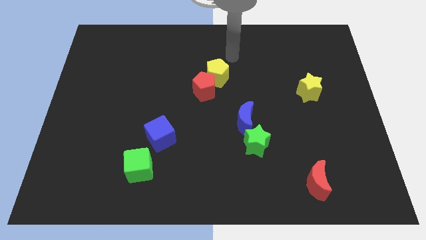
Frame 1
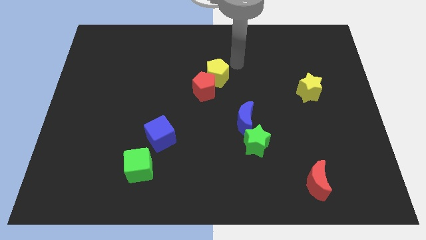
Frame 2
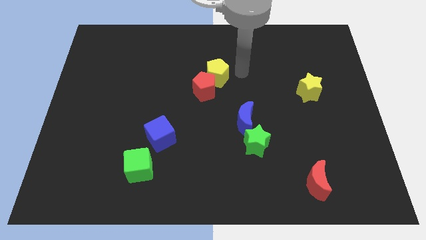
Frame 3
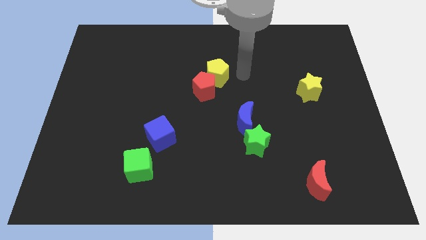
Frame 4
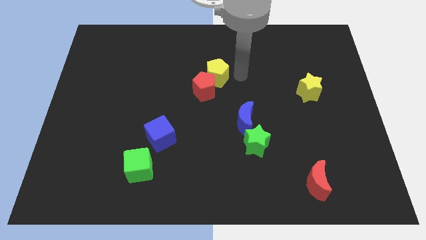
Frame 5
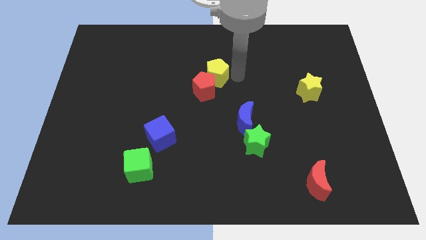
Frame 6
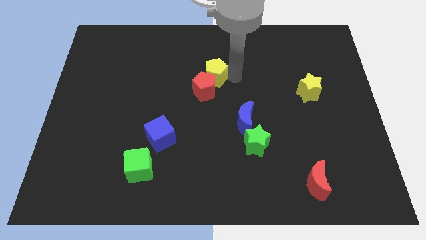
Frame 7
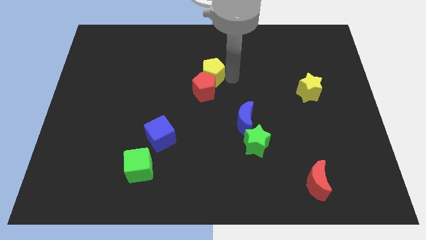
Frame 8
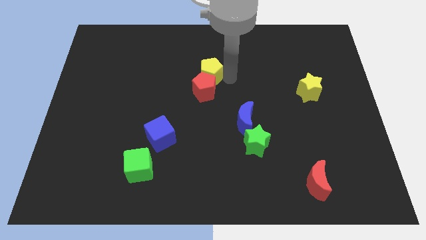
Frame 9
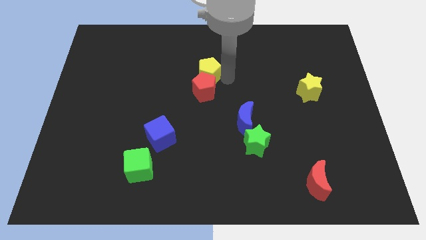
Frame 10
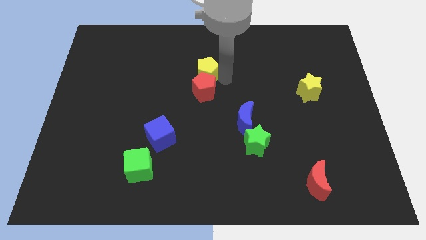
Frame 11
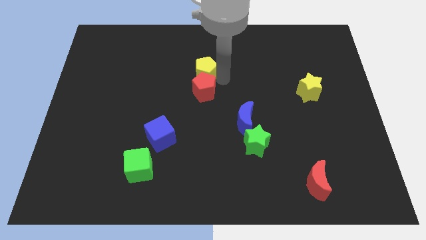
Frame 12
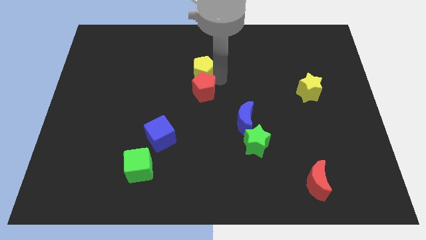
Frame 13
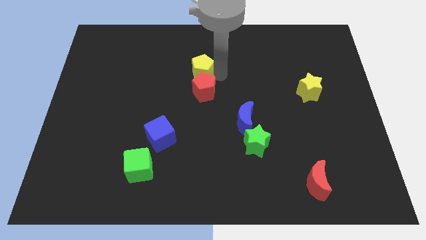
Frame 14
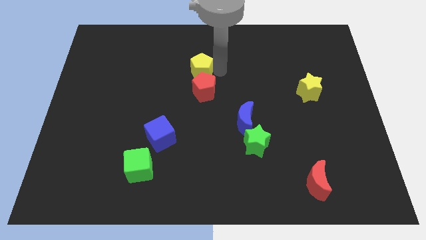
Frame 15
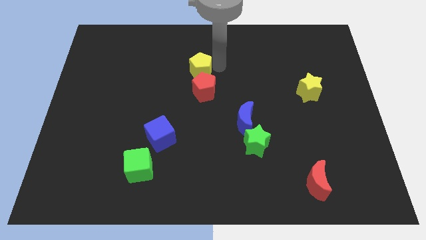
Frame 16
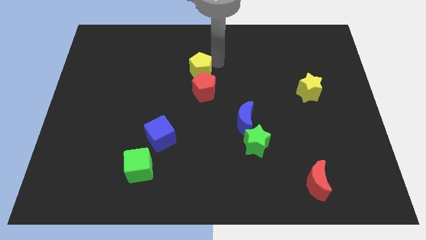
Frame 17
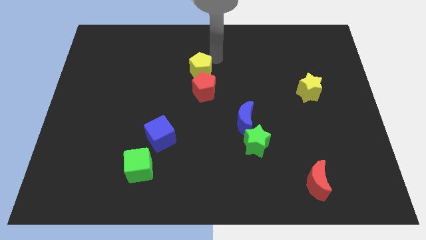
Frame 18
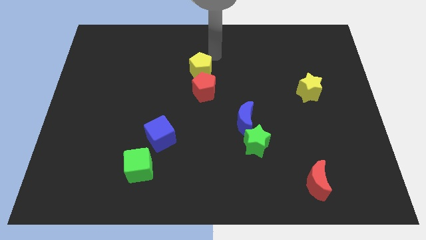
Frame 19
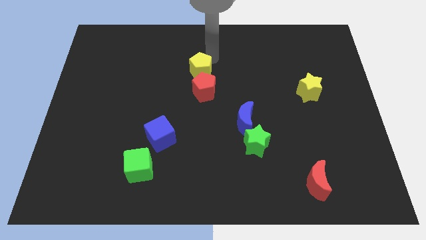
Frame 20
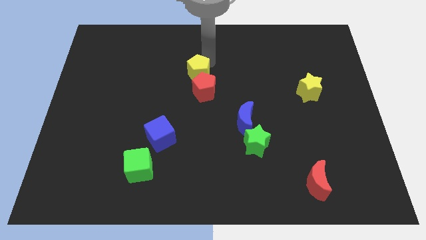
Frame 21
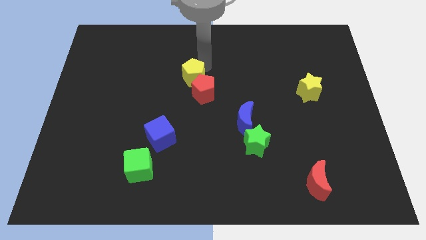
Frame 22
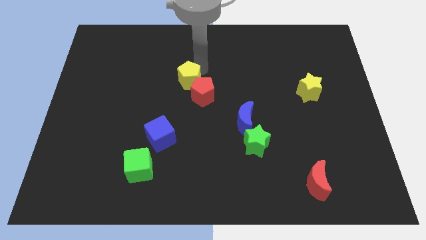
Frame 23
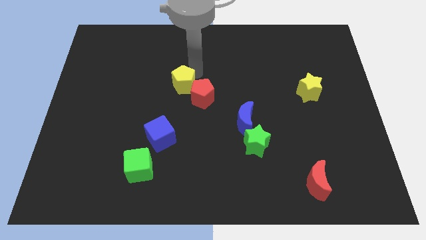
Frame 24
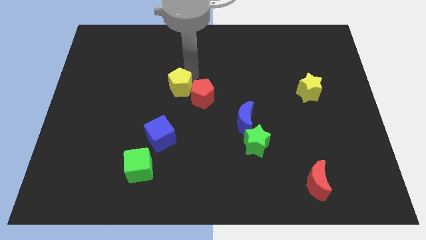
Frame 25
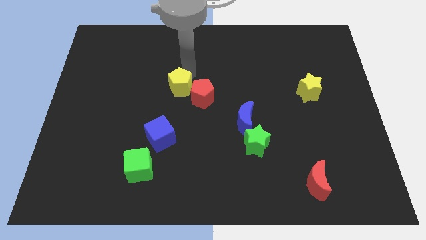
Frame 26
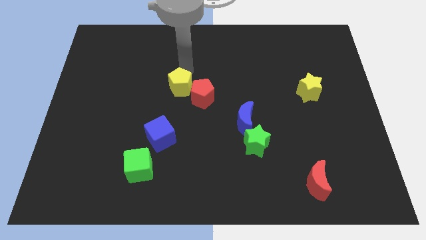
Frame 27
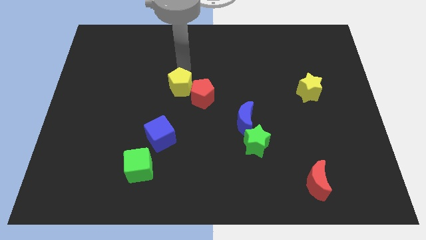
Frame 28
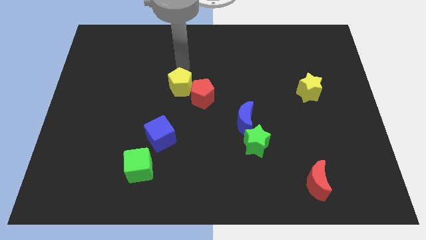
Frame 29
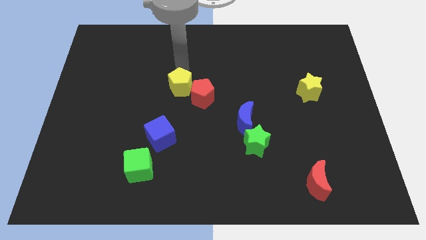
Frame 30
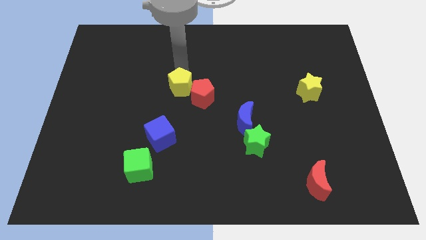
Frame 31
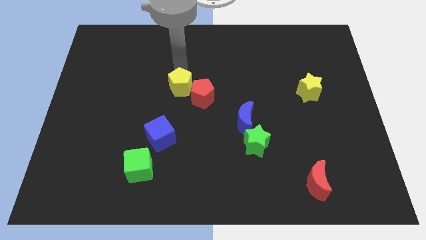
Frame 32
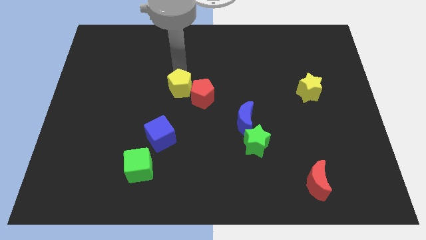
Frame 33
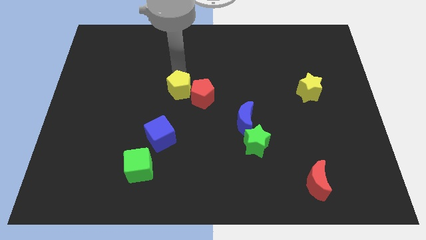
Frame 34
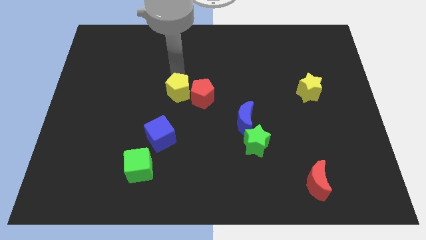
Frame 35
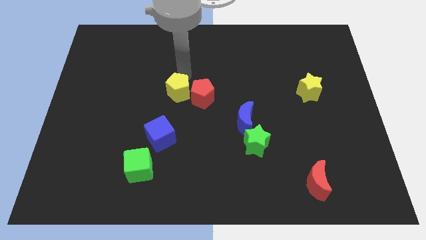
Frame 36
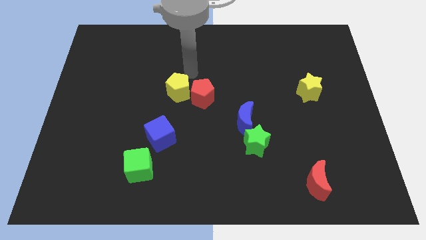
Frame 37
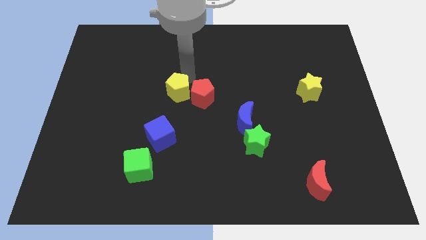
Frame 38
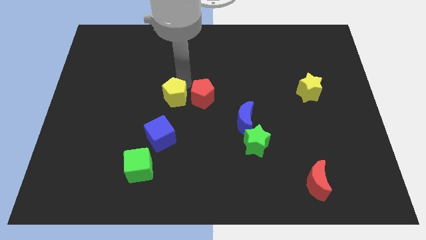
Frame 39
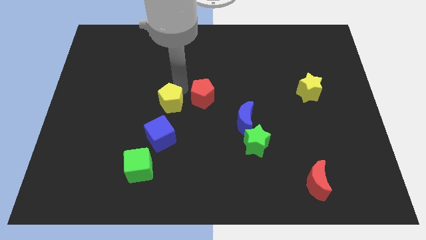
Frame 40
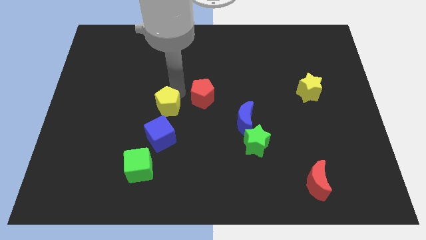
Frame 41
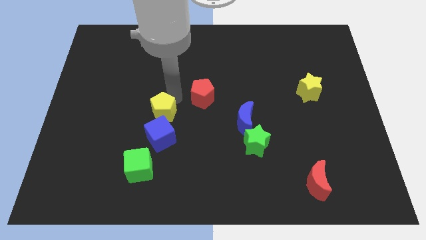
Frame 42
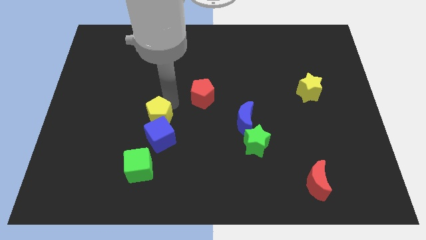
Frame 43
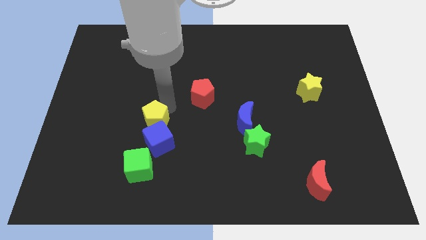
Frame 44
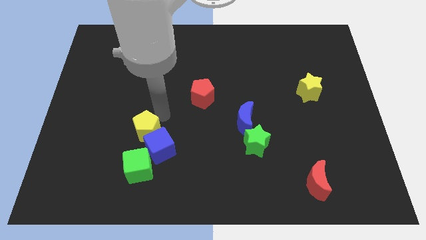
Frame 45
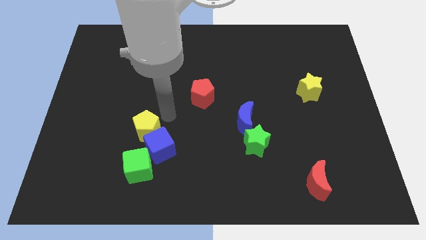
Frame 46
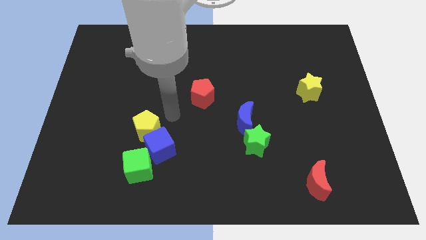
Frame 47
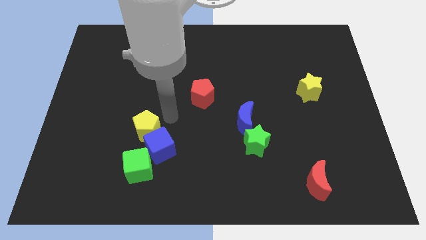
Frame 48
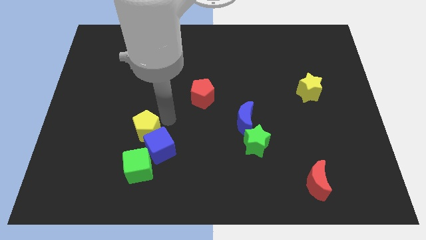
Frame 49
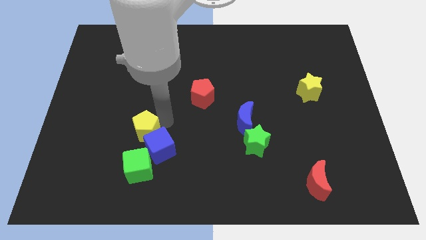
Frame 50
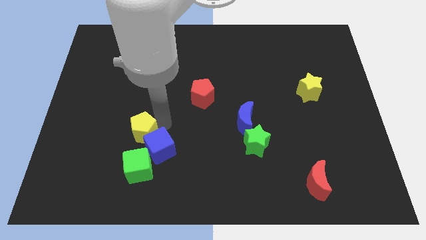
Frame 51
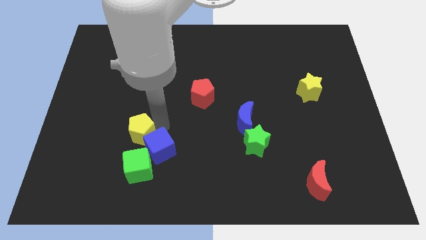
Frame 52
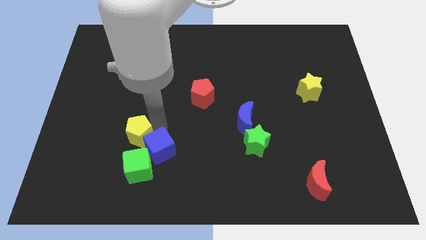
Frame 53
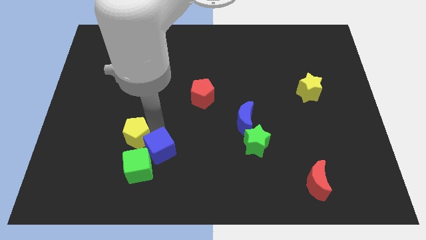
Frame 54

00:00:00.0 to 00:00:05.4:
slide the yellow pentagon diagonally up and to the left of the green cube

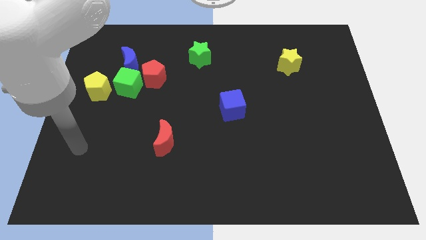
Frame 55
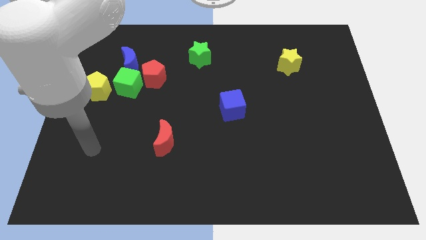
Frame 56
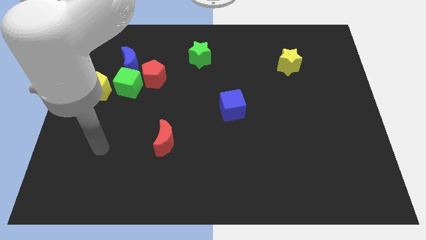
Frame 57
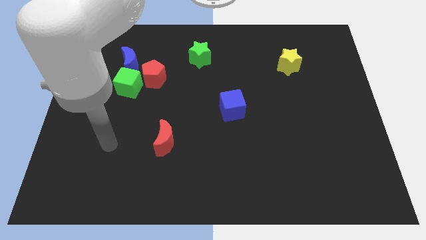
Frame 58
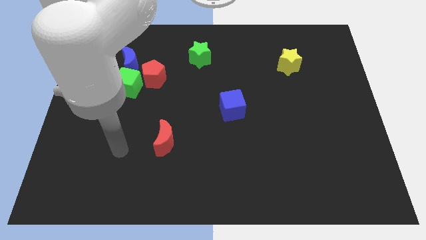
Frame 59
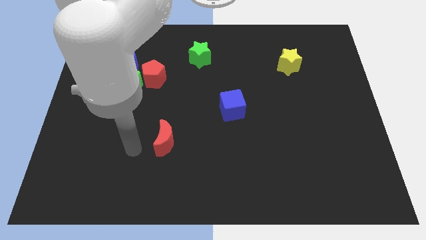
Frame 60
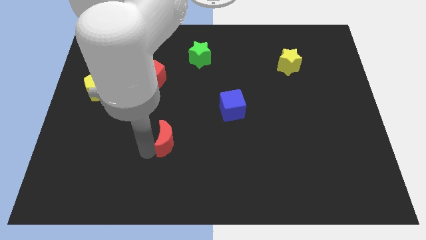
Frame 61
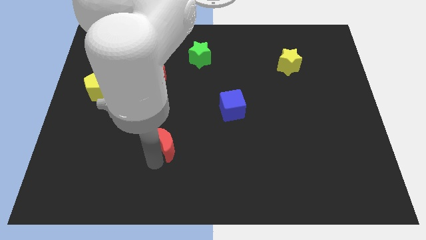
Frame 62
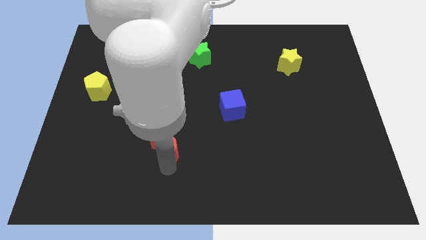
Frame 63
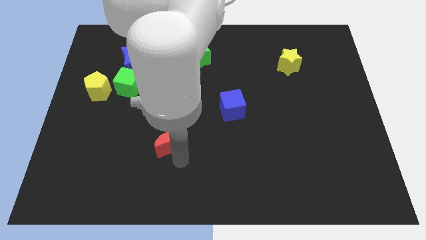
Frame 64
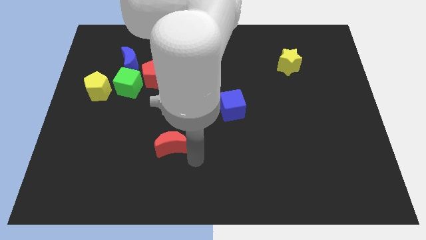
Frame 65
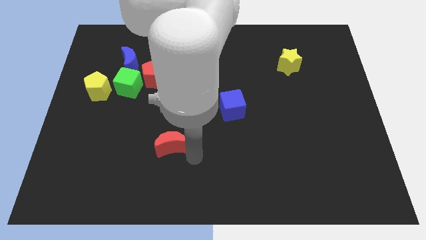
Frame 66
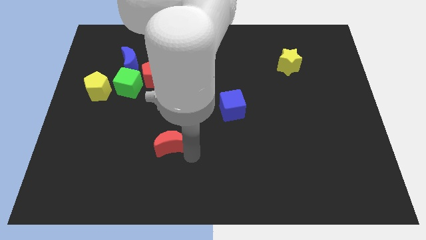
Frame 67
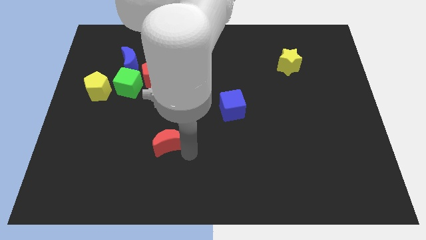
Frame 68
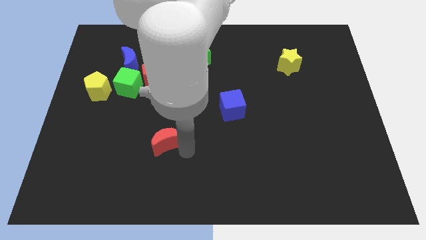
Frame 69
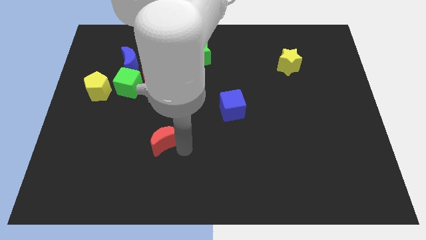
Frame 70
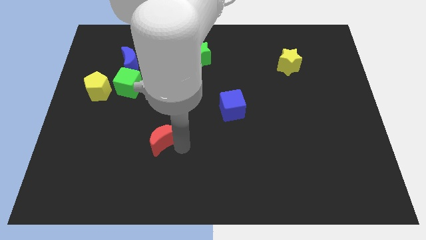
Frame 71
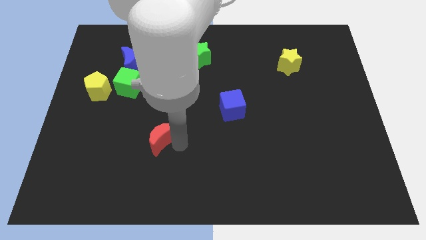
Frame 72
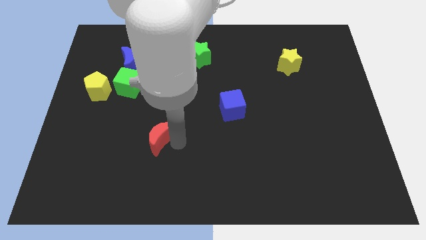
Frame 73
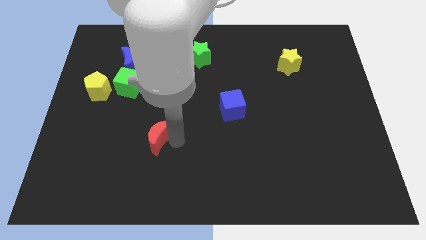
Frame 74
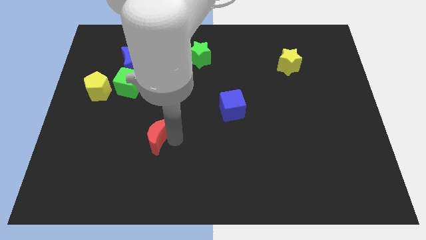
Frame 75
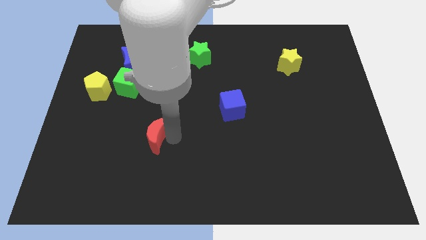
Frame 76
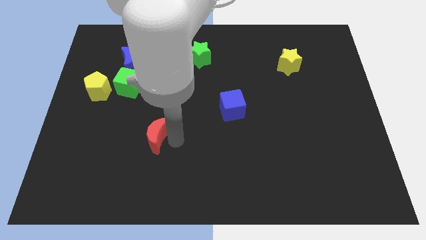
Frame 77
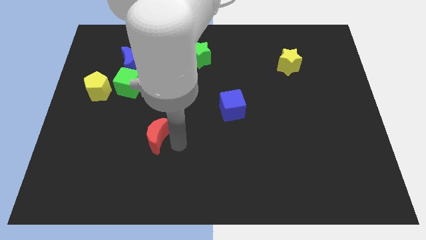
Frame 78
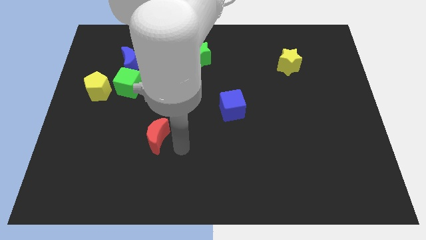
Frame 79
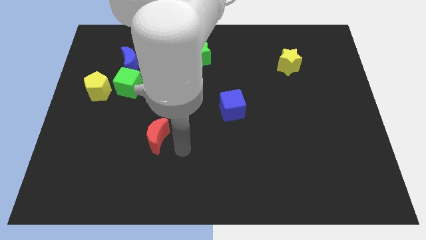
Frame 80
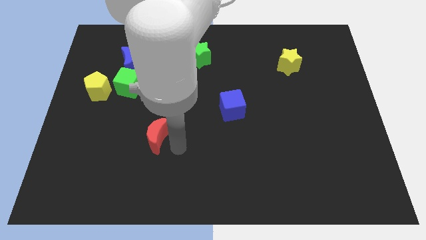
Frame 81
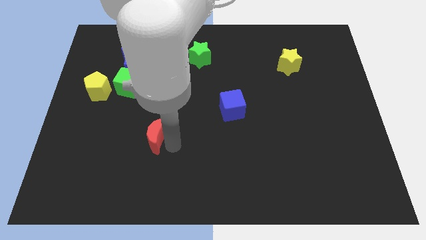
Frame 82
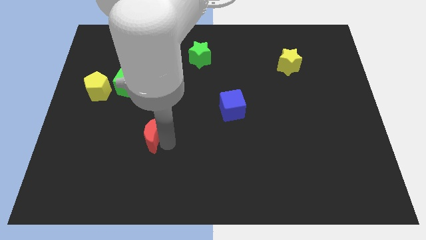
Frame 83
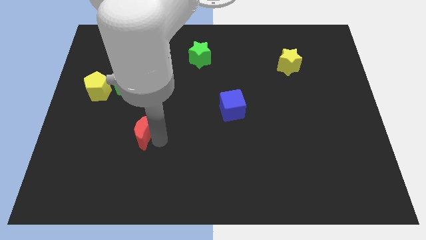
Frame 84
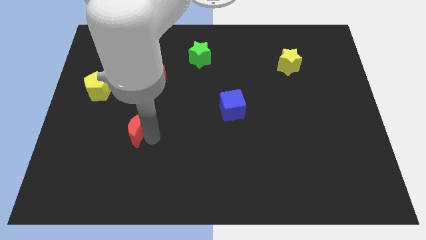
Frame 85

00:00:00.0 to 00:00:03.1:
push the red moon to the bottom of the green cube
